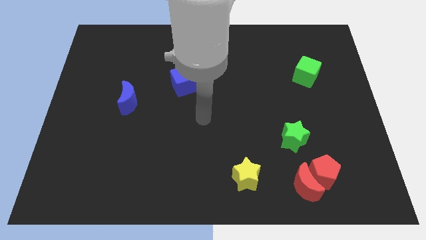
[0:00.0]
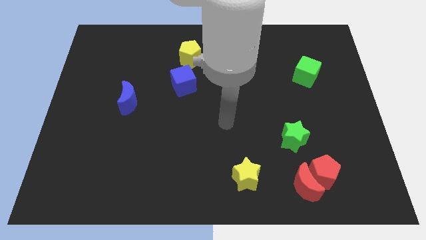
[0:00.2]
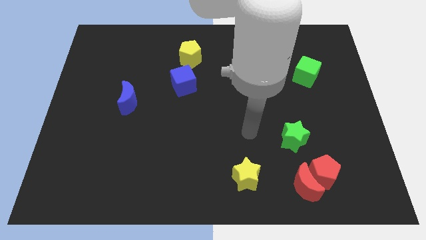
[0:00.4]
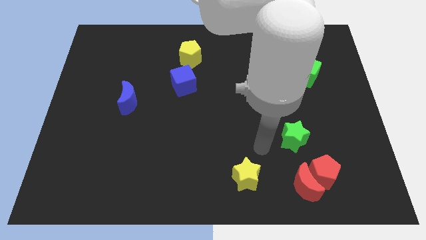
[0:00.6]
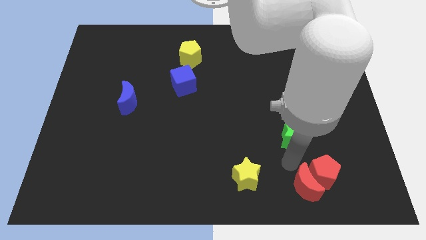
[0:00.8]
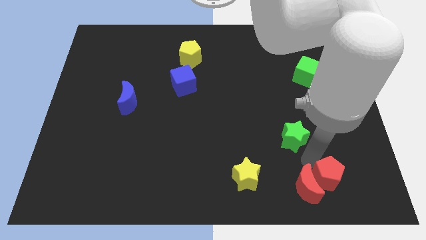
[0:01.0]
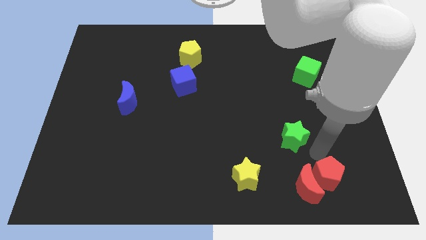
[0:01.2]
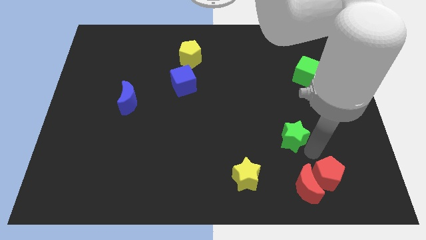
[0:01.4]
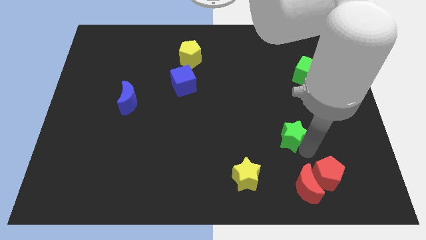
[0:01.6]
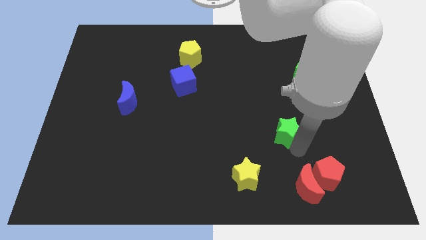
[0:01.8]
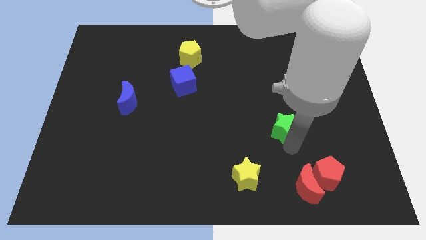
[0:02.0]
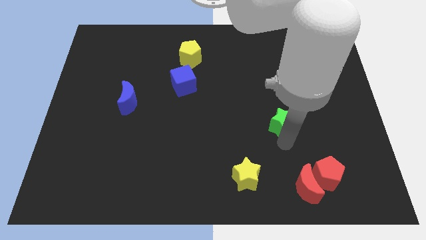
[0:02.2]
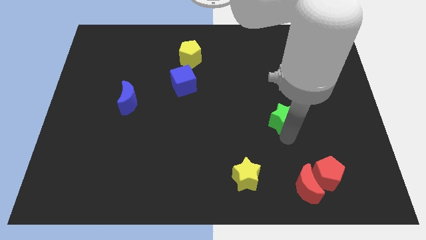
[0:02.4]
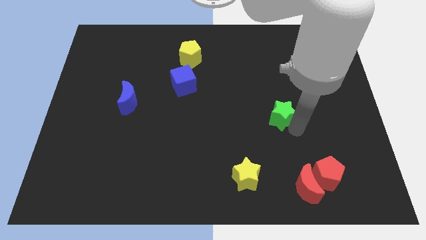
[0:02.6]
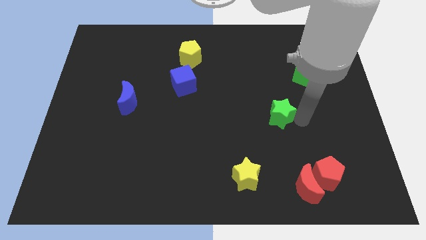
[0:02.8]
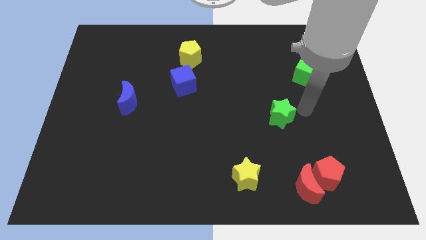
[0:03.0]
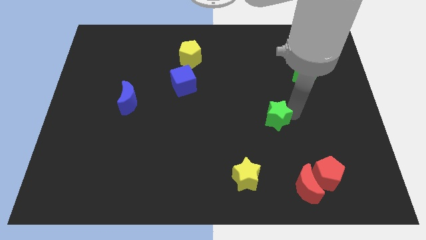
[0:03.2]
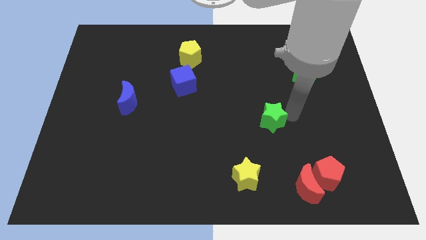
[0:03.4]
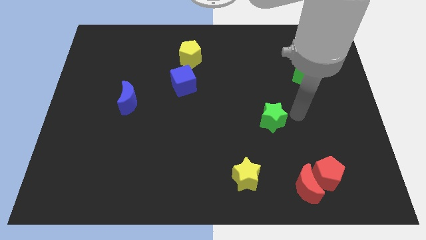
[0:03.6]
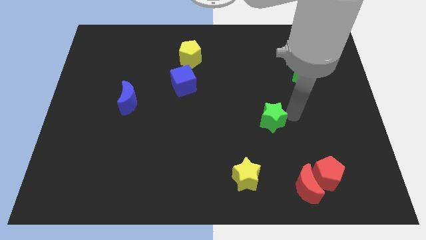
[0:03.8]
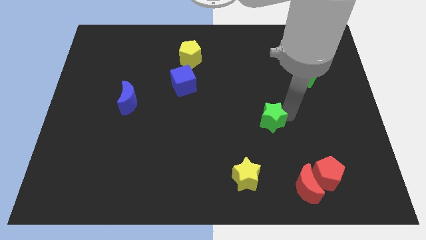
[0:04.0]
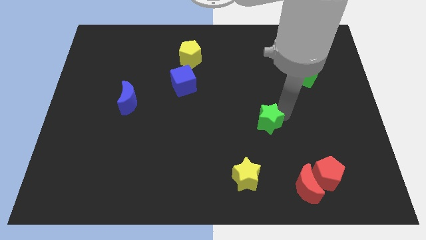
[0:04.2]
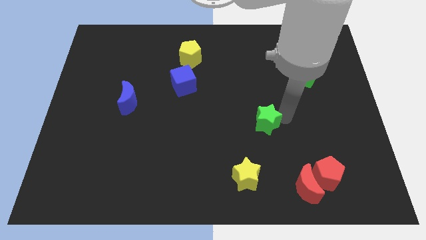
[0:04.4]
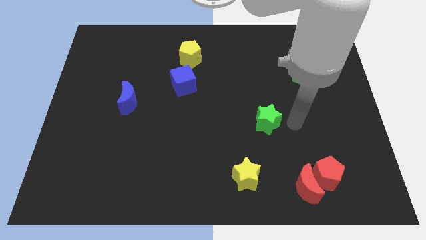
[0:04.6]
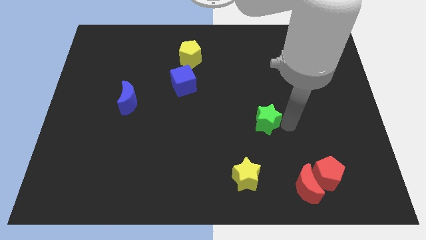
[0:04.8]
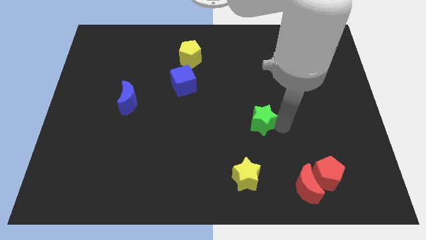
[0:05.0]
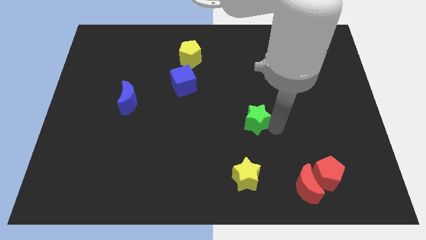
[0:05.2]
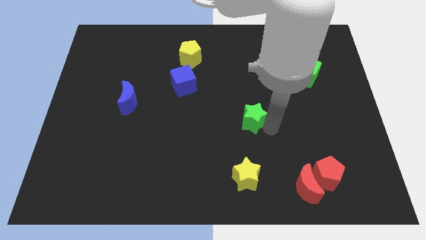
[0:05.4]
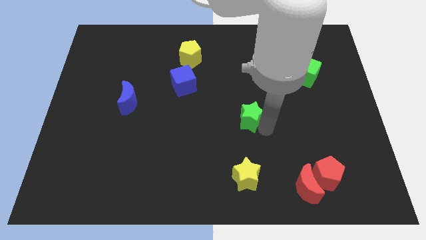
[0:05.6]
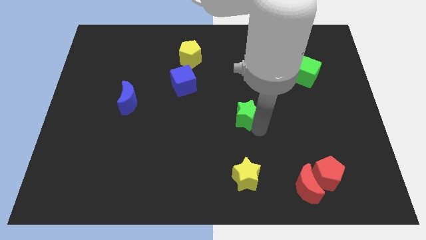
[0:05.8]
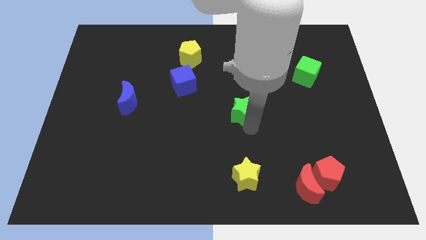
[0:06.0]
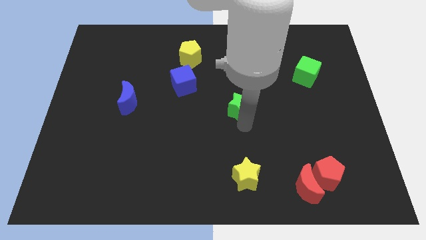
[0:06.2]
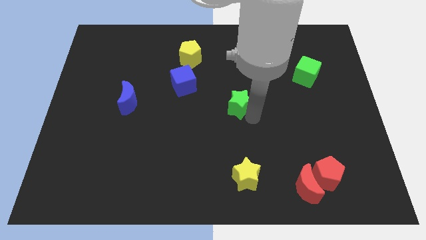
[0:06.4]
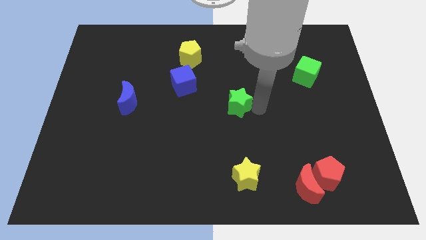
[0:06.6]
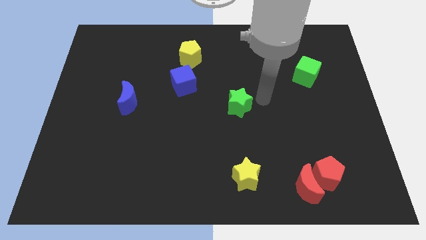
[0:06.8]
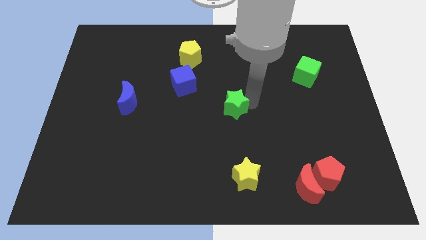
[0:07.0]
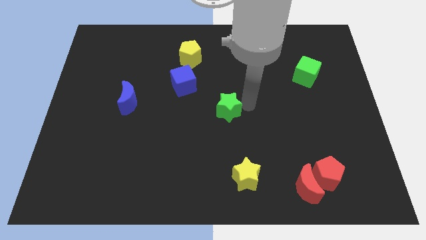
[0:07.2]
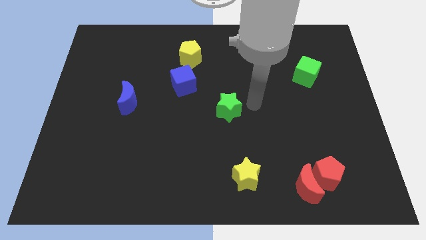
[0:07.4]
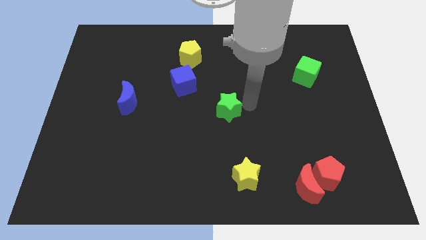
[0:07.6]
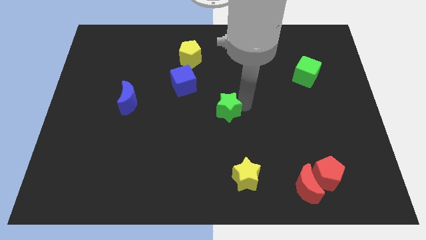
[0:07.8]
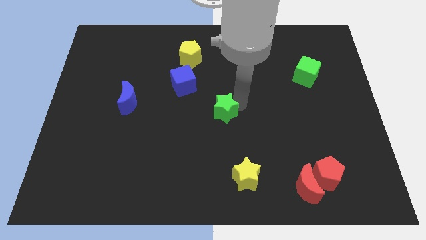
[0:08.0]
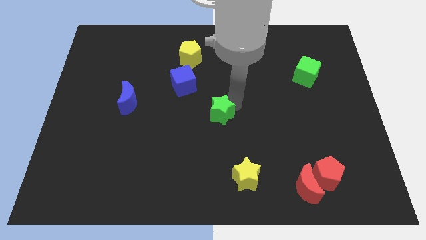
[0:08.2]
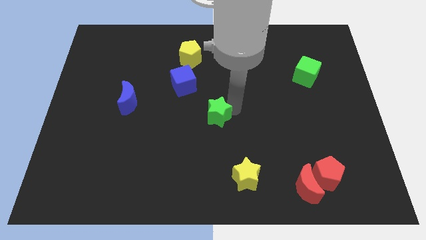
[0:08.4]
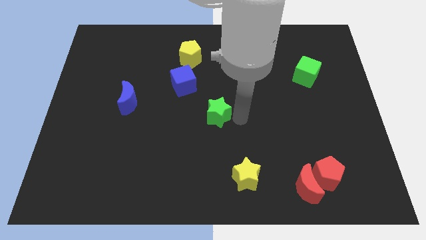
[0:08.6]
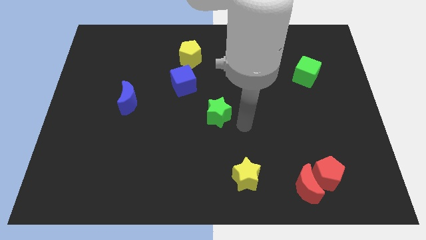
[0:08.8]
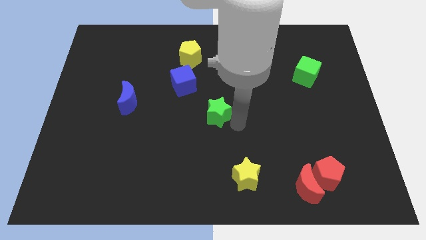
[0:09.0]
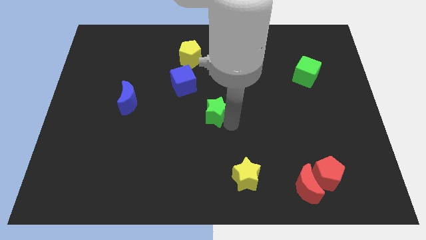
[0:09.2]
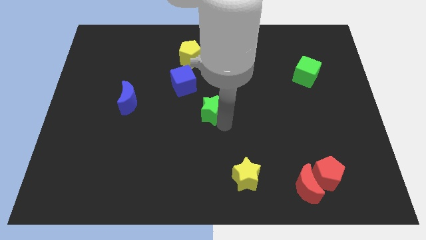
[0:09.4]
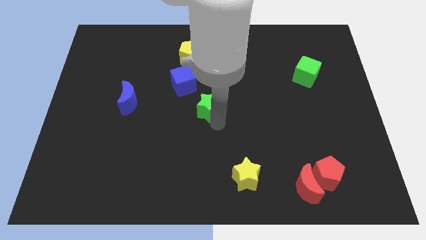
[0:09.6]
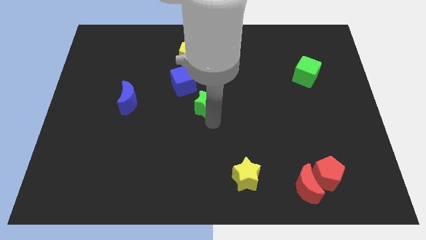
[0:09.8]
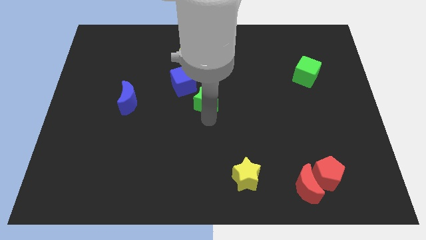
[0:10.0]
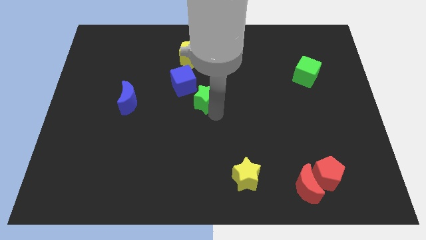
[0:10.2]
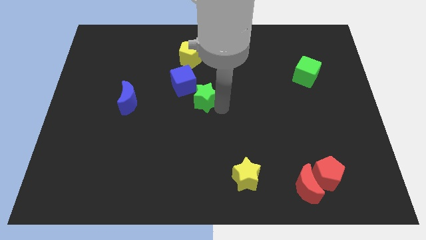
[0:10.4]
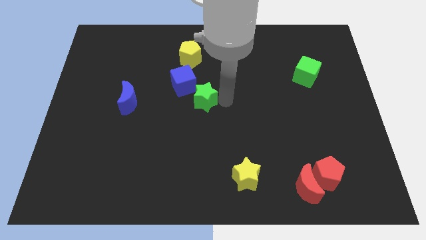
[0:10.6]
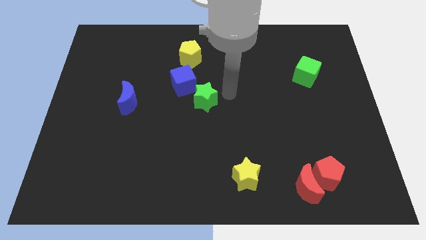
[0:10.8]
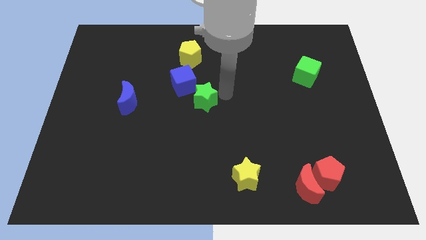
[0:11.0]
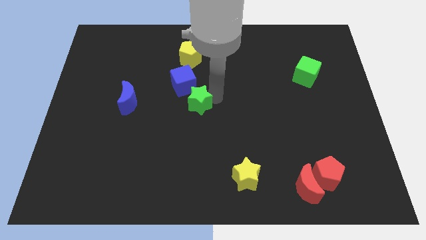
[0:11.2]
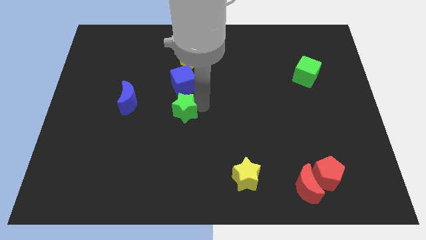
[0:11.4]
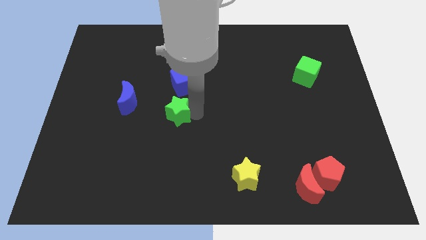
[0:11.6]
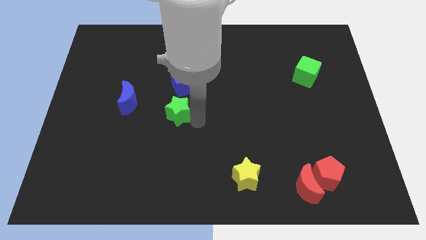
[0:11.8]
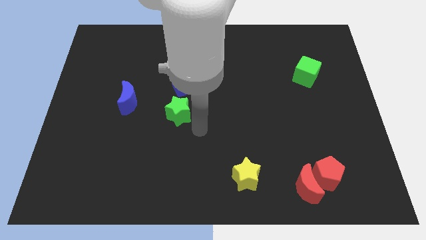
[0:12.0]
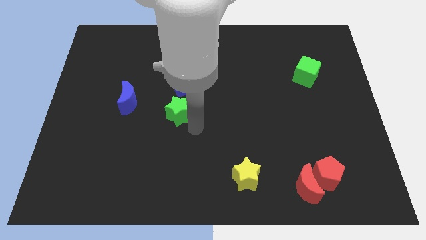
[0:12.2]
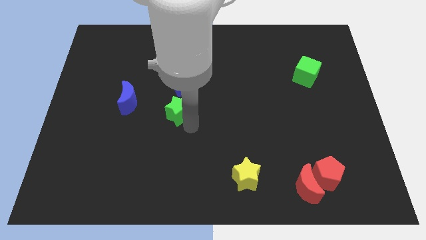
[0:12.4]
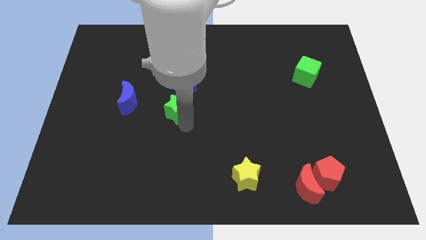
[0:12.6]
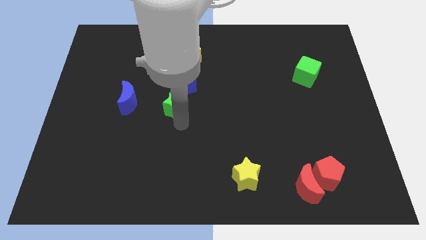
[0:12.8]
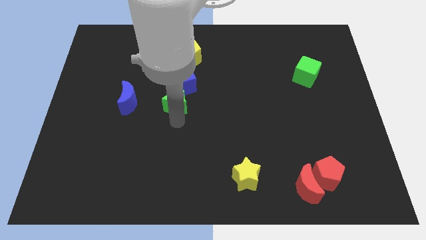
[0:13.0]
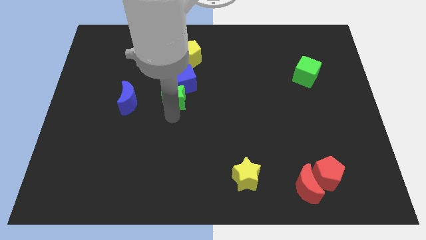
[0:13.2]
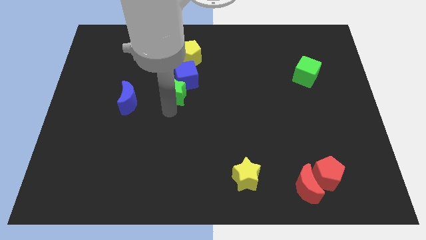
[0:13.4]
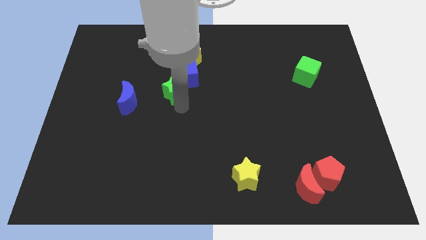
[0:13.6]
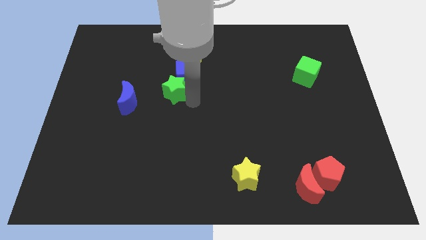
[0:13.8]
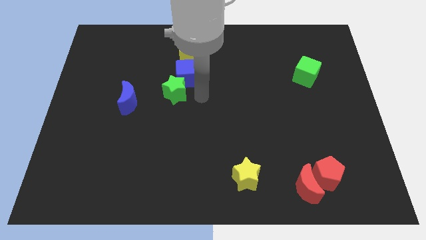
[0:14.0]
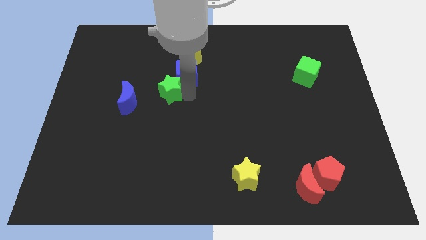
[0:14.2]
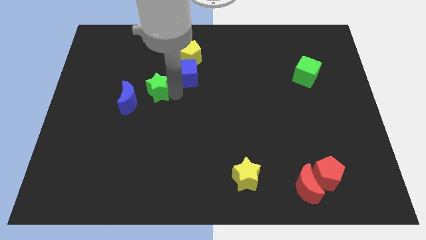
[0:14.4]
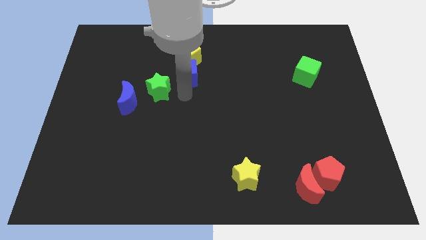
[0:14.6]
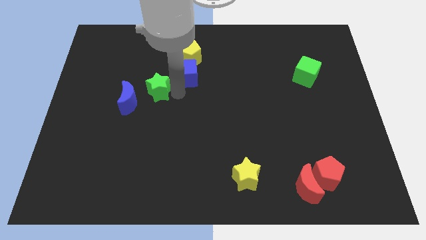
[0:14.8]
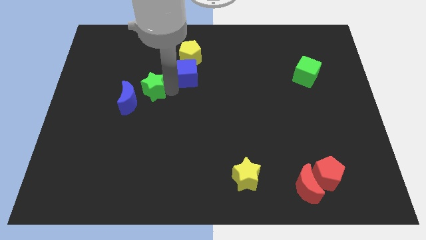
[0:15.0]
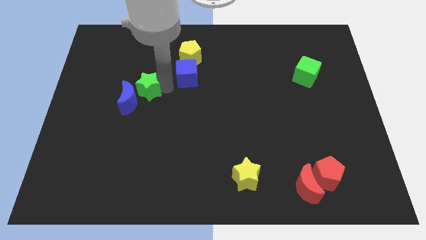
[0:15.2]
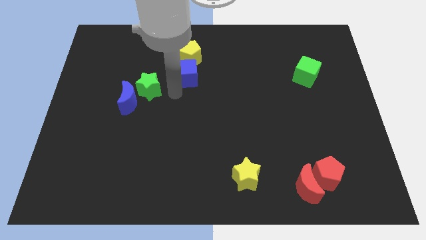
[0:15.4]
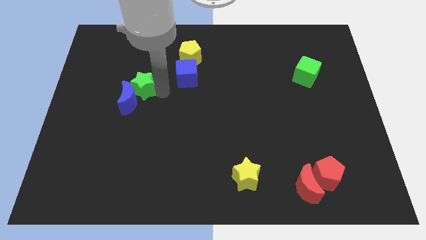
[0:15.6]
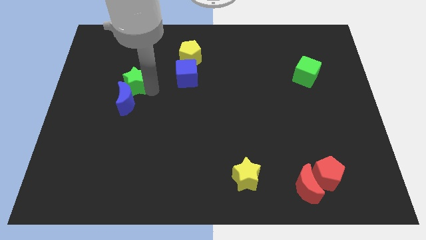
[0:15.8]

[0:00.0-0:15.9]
put the green star to the top left side of the blue moon
